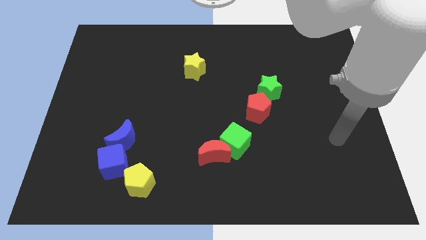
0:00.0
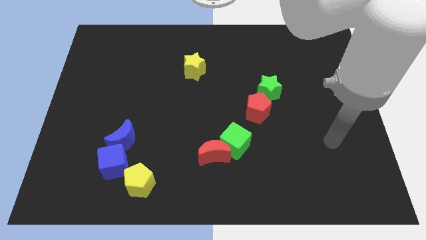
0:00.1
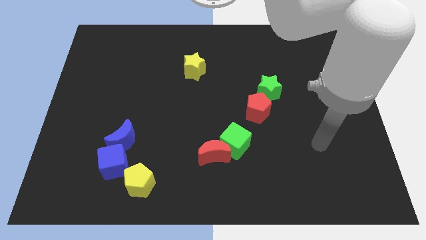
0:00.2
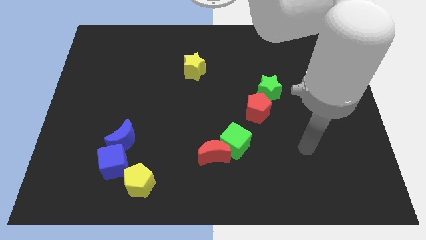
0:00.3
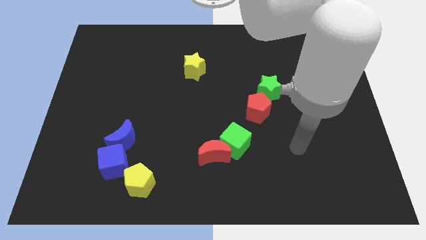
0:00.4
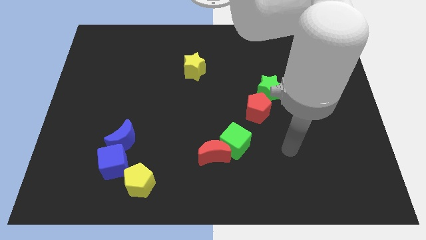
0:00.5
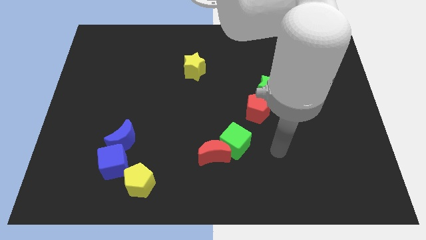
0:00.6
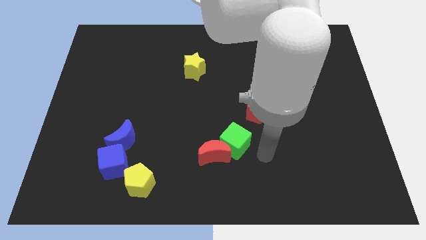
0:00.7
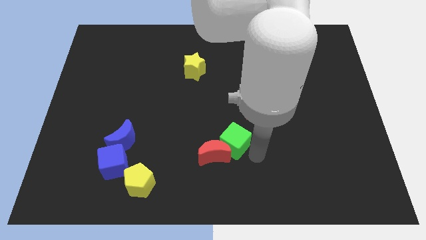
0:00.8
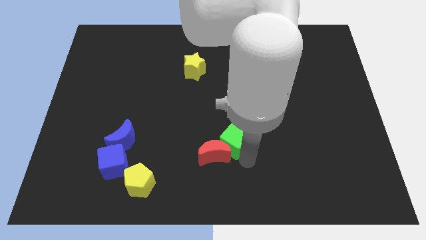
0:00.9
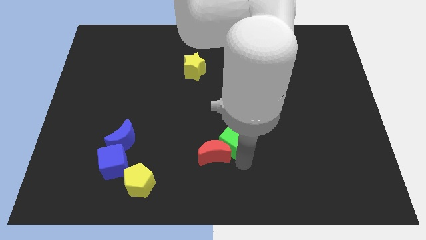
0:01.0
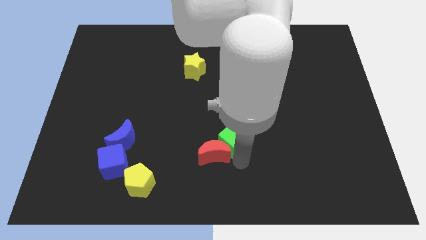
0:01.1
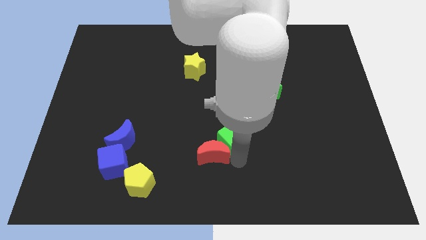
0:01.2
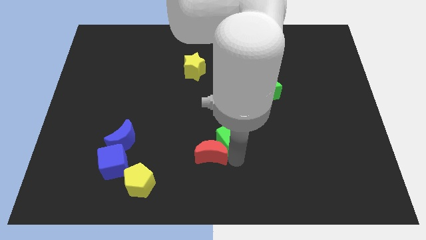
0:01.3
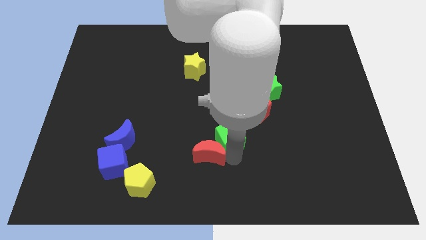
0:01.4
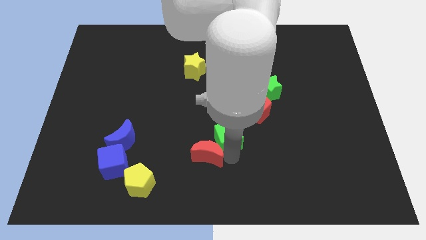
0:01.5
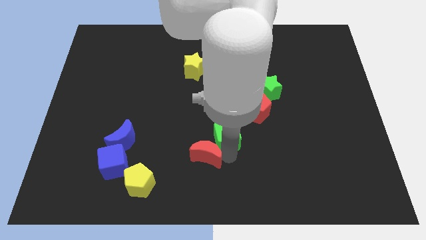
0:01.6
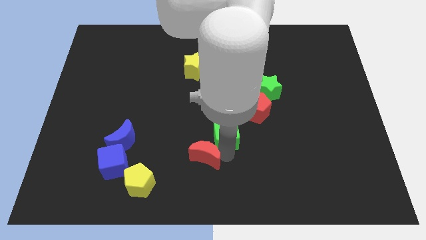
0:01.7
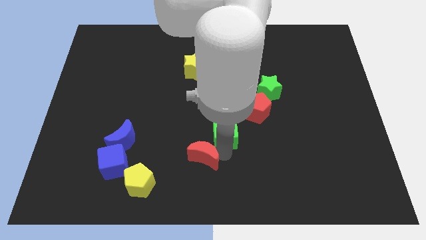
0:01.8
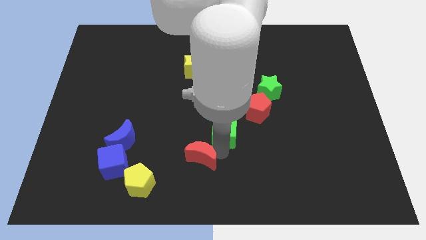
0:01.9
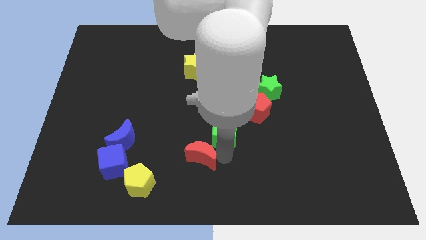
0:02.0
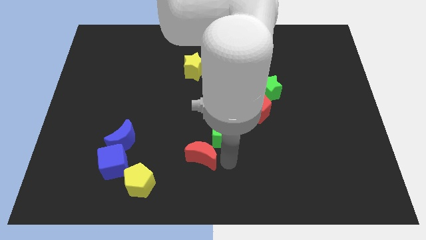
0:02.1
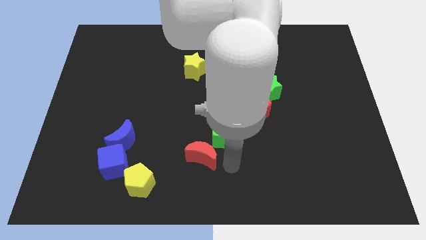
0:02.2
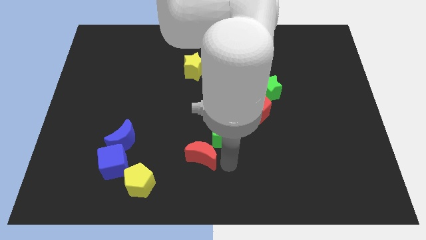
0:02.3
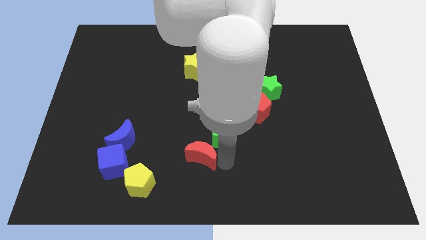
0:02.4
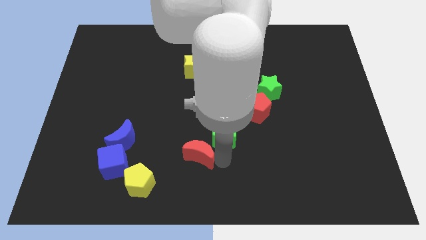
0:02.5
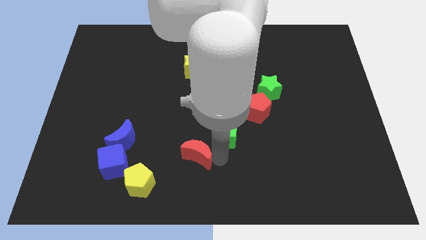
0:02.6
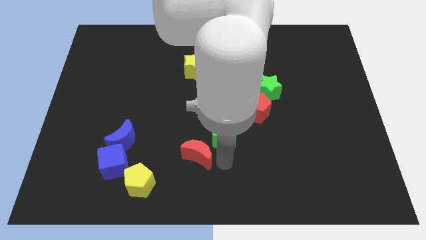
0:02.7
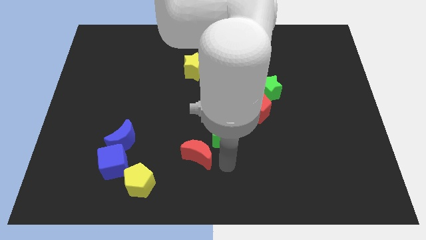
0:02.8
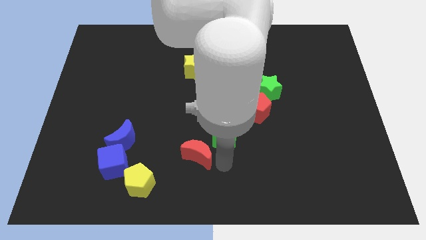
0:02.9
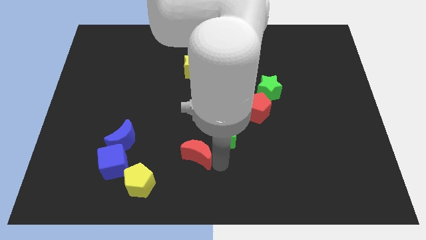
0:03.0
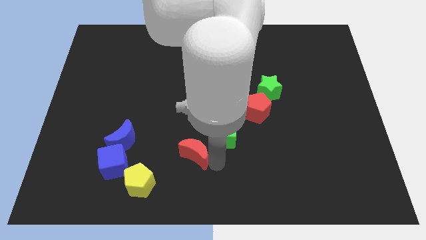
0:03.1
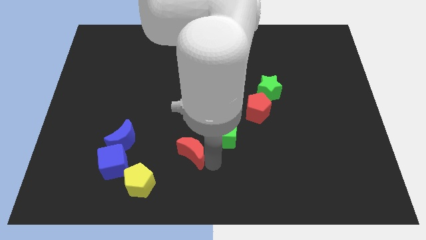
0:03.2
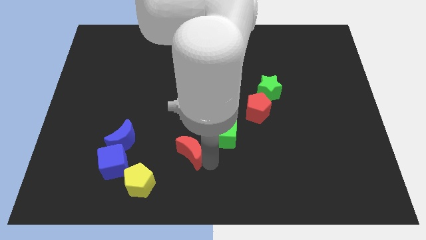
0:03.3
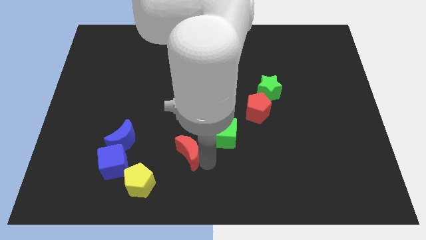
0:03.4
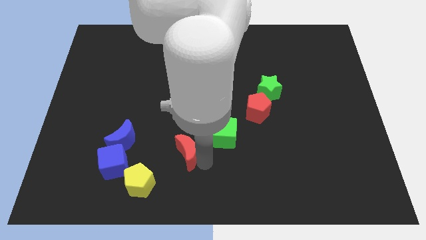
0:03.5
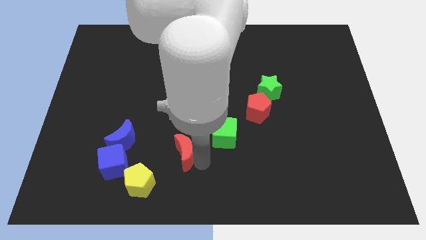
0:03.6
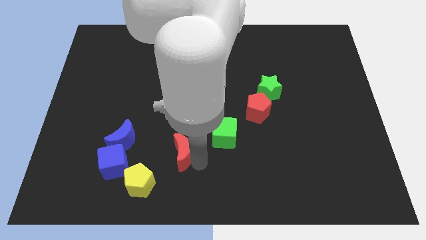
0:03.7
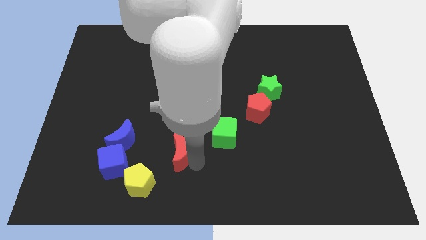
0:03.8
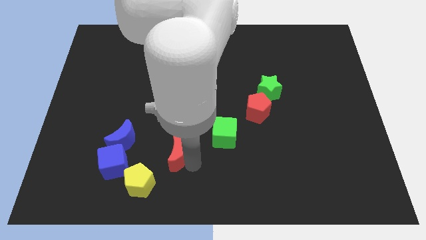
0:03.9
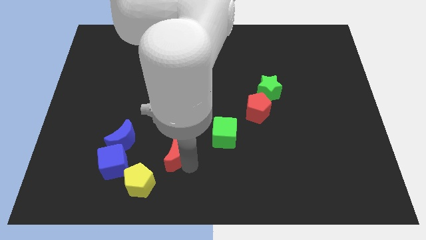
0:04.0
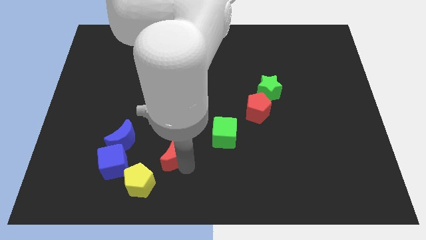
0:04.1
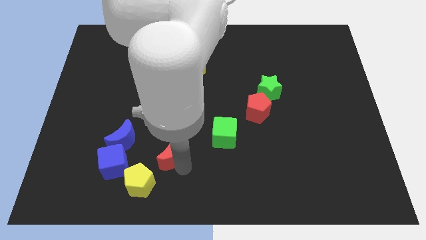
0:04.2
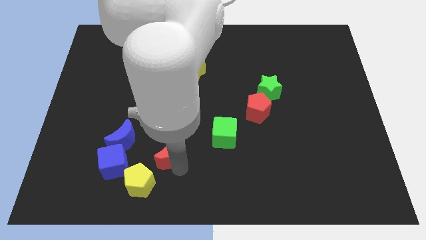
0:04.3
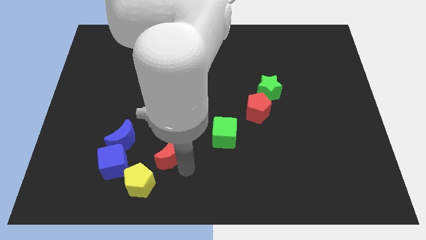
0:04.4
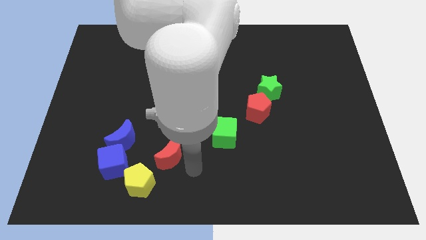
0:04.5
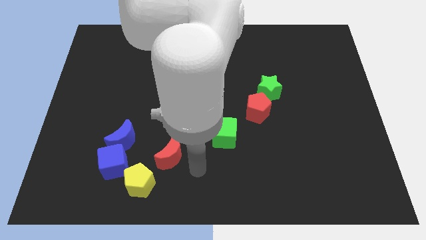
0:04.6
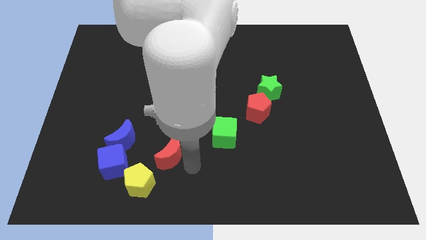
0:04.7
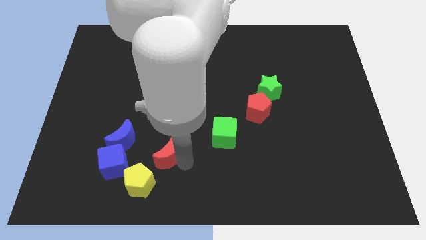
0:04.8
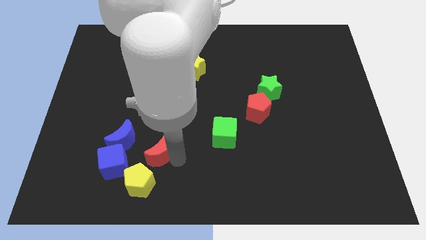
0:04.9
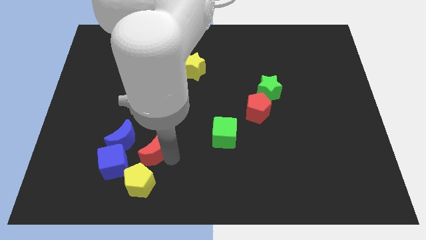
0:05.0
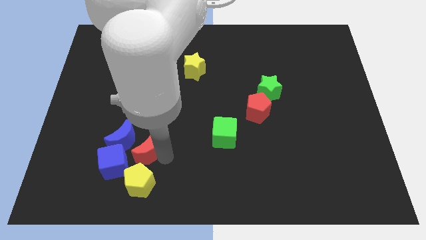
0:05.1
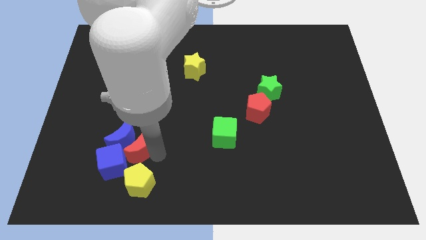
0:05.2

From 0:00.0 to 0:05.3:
push the red moon next to the blue moon

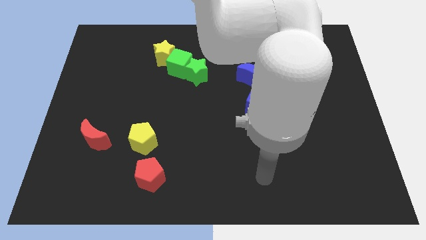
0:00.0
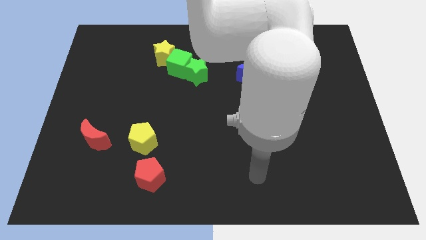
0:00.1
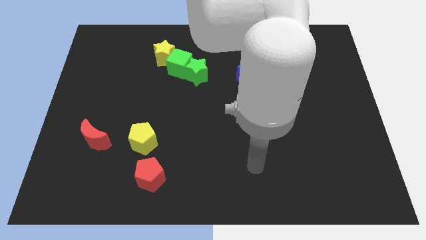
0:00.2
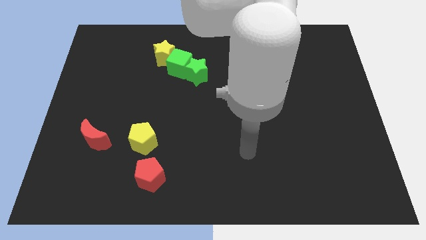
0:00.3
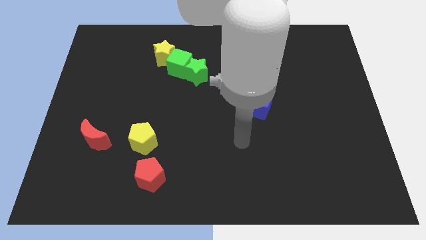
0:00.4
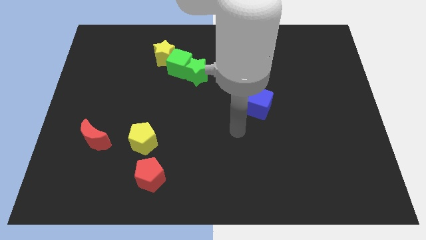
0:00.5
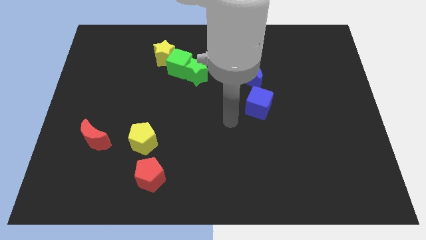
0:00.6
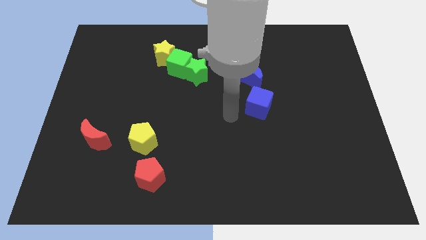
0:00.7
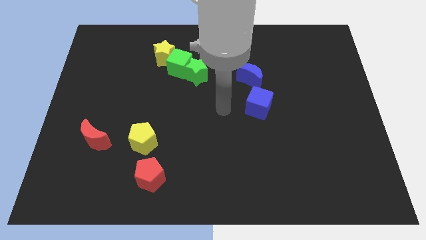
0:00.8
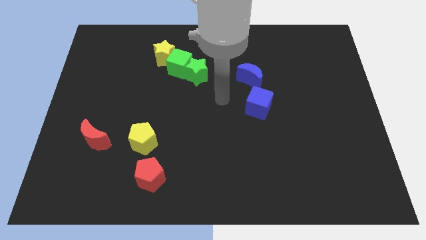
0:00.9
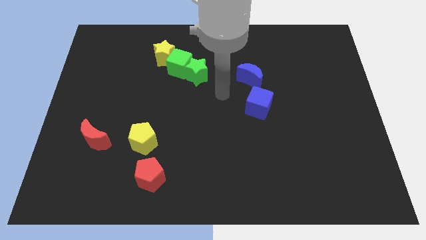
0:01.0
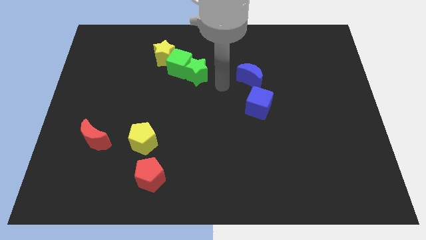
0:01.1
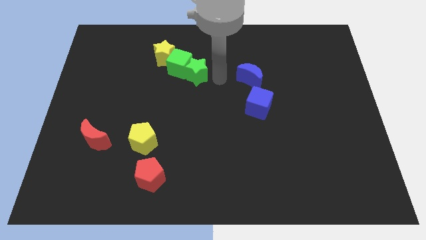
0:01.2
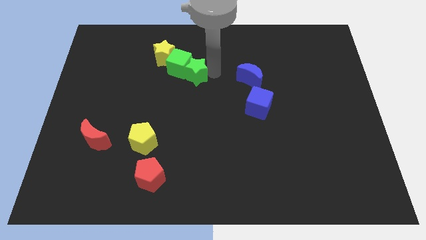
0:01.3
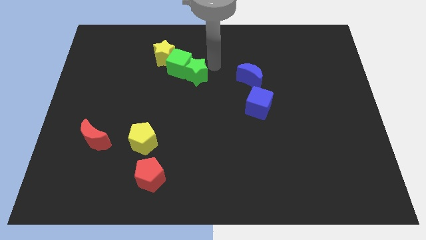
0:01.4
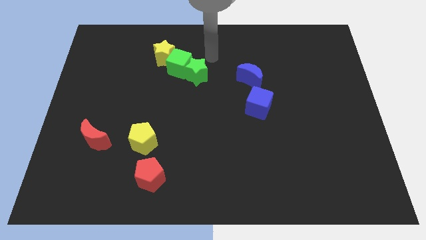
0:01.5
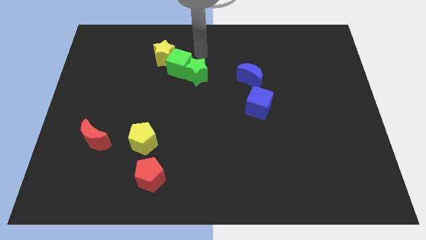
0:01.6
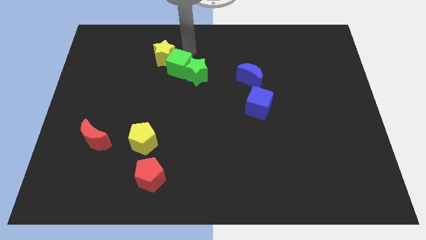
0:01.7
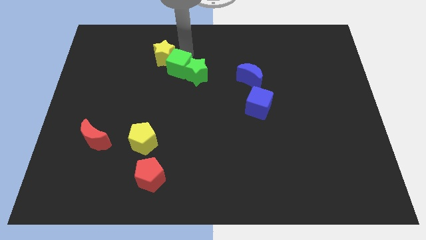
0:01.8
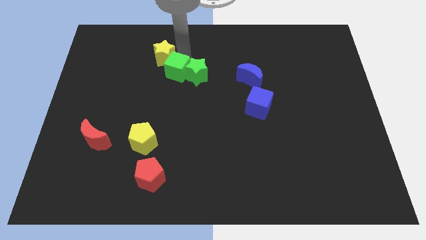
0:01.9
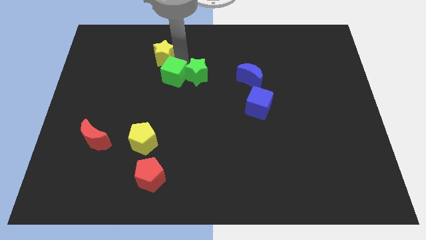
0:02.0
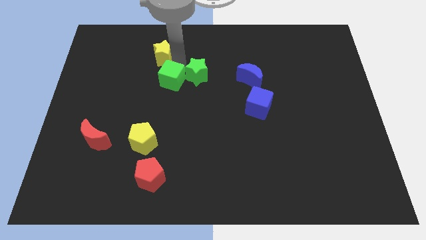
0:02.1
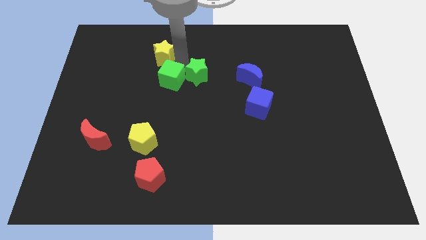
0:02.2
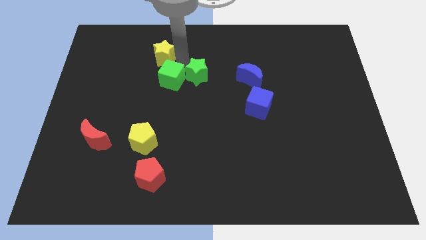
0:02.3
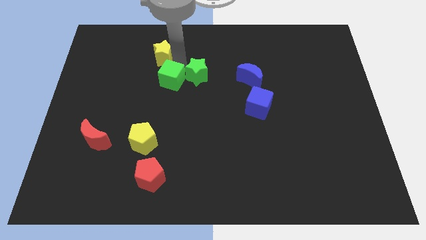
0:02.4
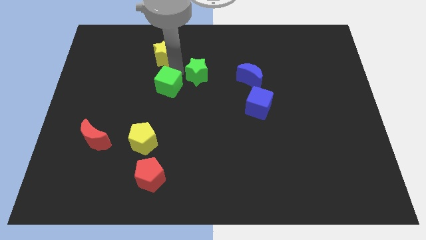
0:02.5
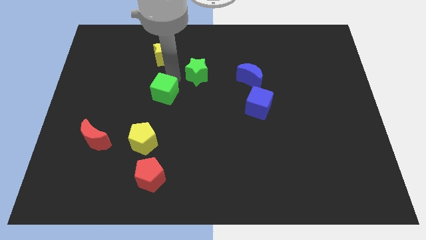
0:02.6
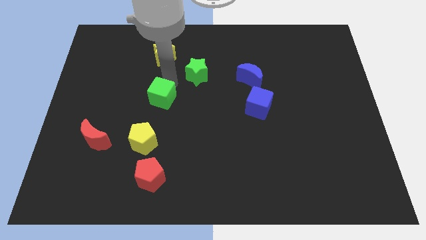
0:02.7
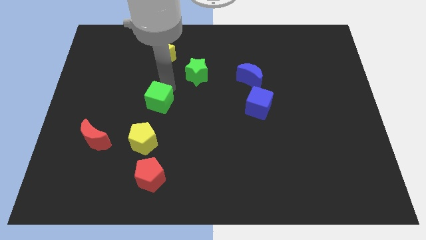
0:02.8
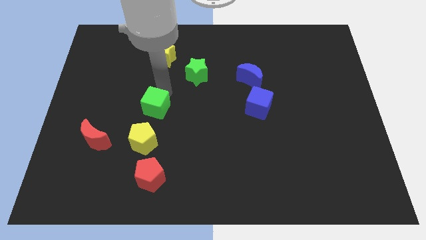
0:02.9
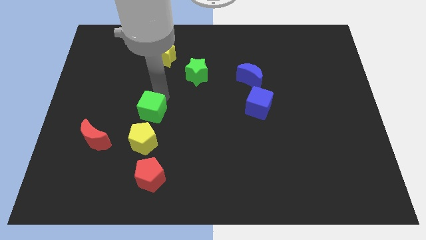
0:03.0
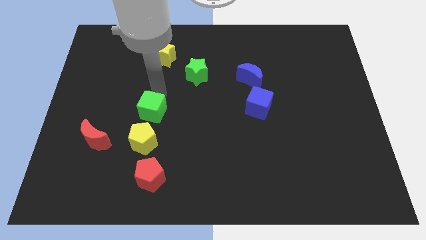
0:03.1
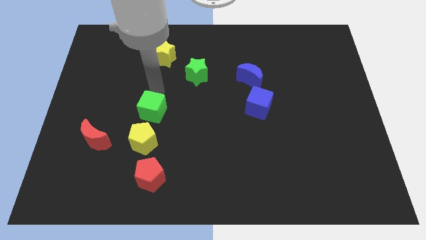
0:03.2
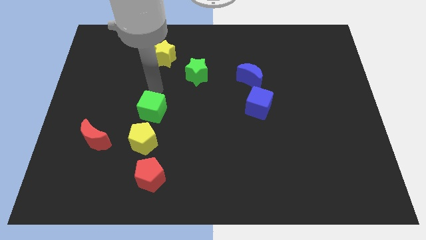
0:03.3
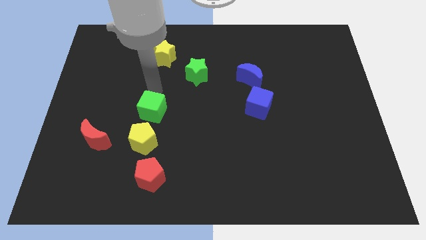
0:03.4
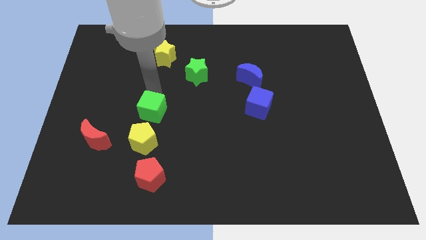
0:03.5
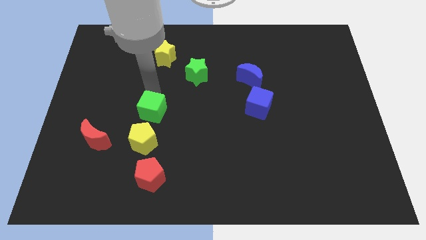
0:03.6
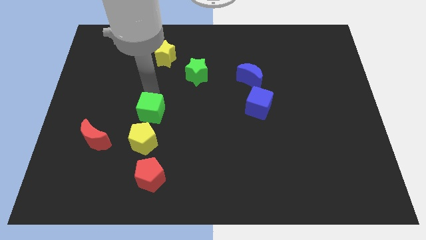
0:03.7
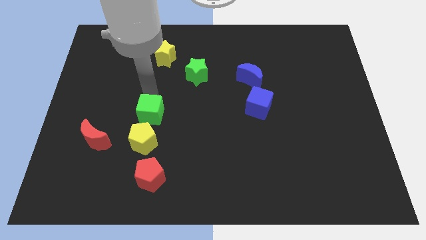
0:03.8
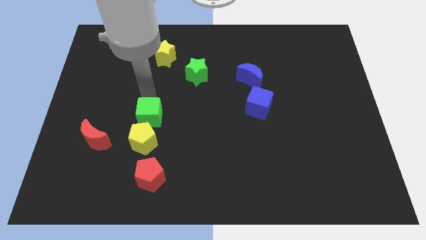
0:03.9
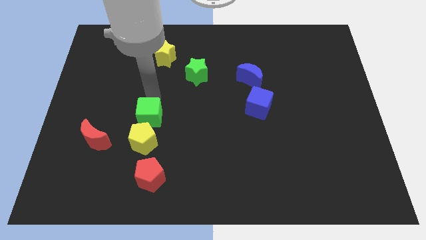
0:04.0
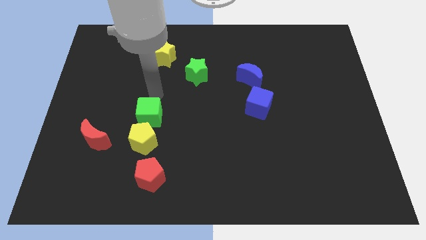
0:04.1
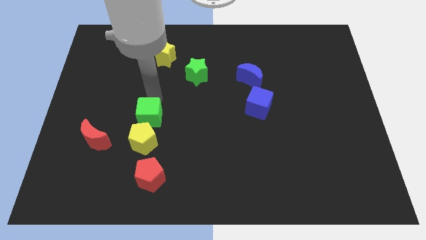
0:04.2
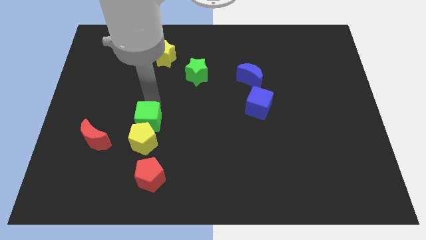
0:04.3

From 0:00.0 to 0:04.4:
put the green cube close to the yellow pentagon
